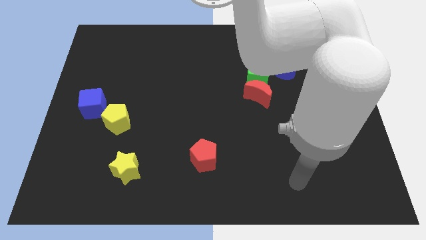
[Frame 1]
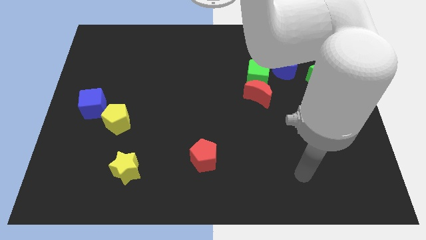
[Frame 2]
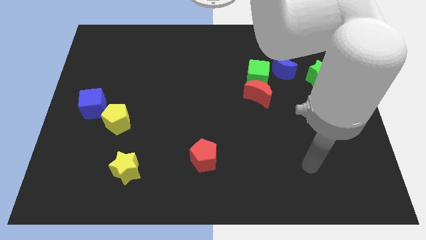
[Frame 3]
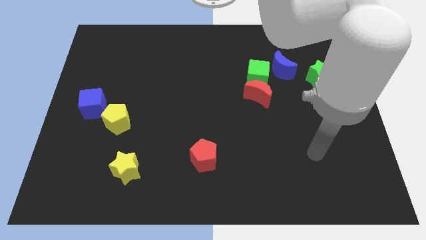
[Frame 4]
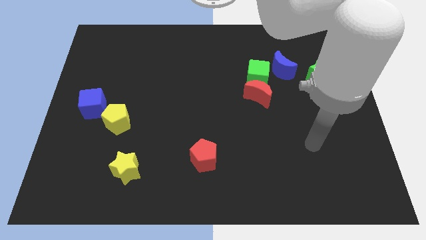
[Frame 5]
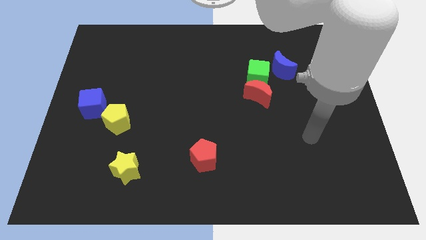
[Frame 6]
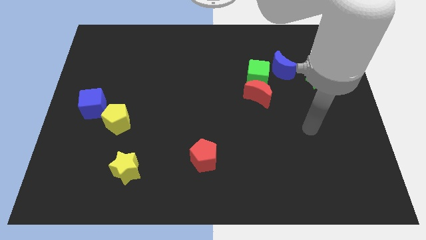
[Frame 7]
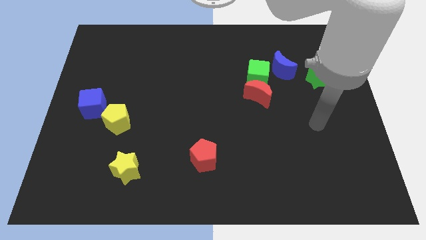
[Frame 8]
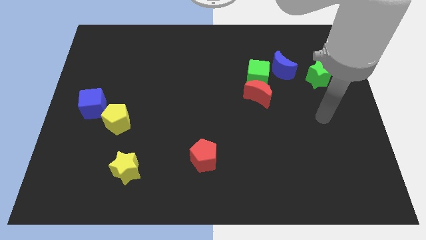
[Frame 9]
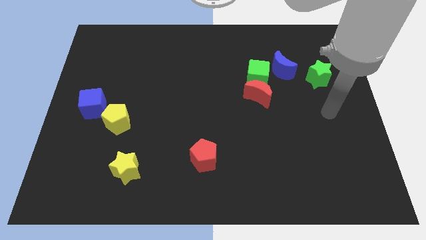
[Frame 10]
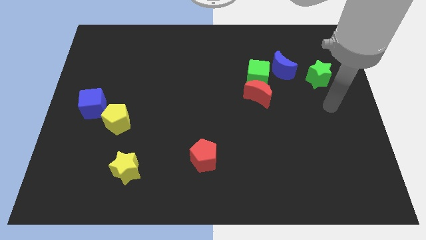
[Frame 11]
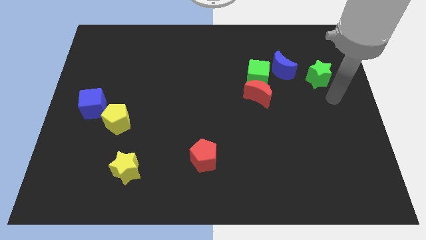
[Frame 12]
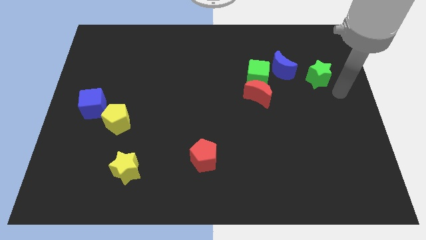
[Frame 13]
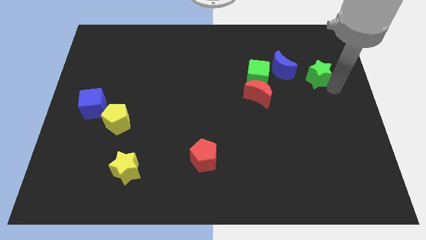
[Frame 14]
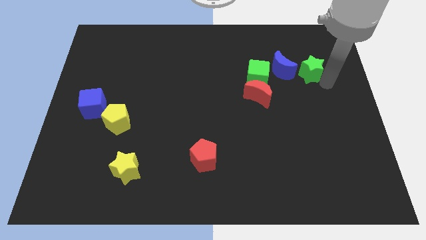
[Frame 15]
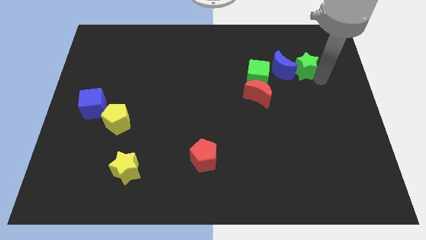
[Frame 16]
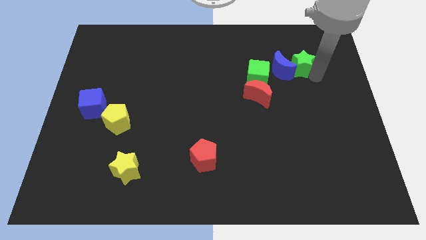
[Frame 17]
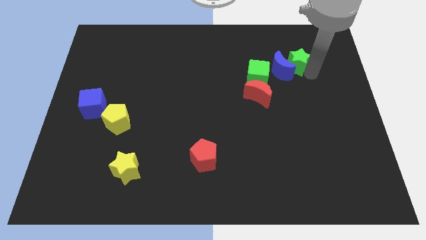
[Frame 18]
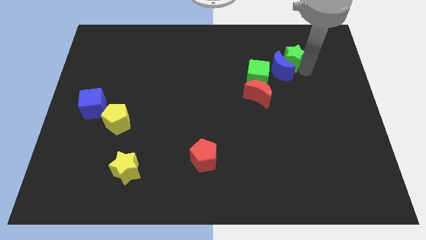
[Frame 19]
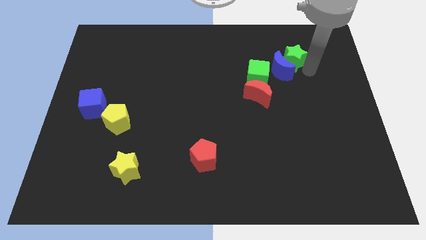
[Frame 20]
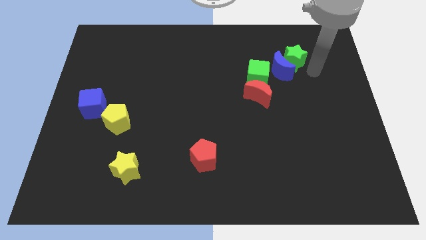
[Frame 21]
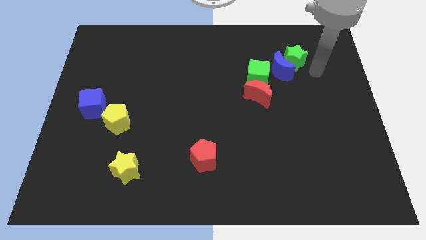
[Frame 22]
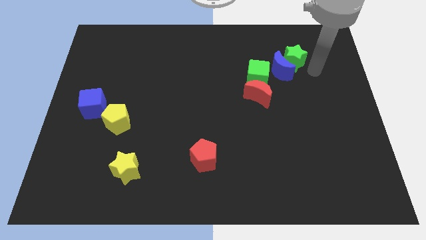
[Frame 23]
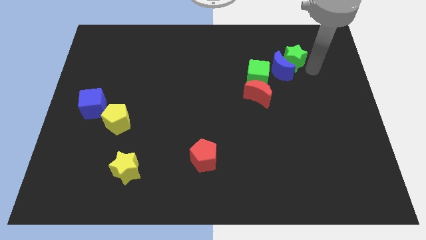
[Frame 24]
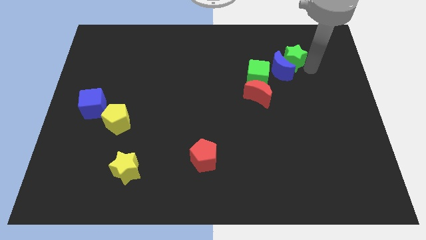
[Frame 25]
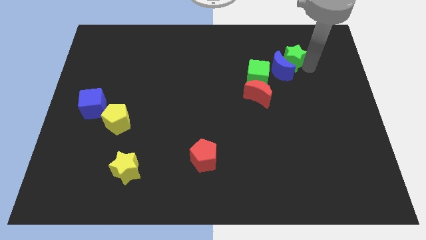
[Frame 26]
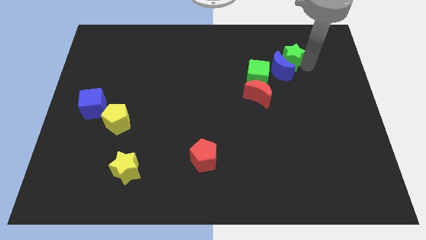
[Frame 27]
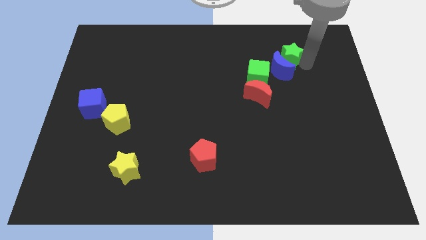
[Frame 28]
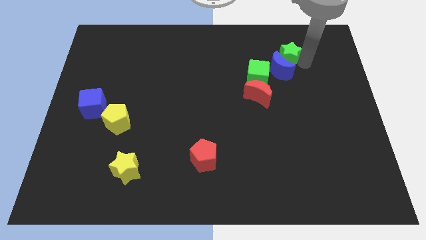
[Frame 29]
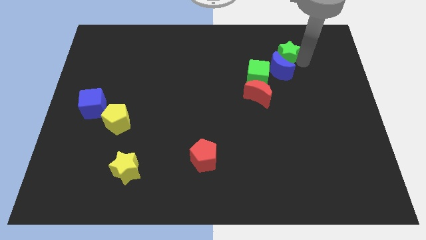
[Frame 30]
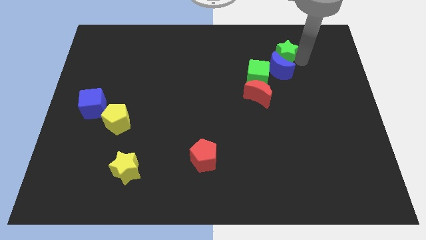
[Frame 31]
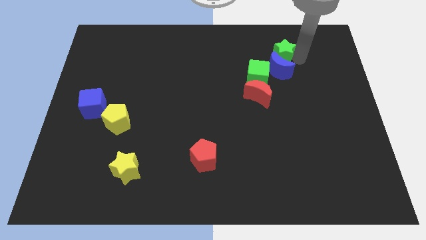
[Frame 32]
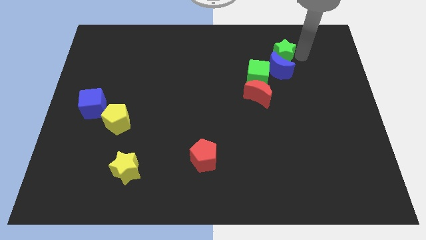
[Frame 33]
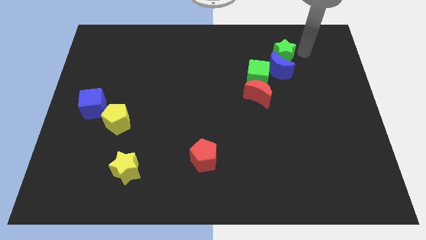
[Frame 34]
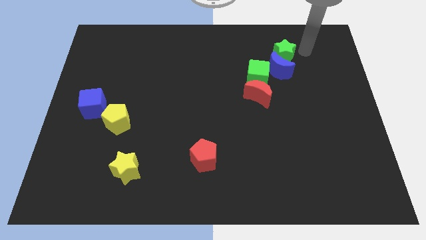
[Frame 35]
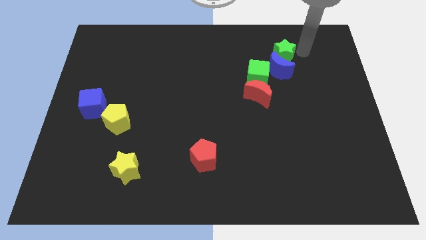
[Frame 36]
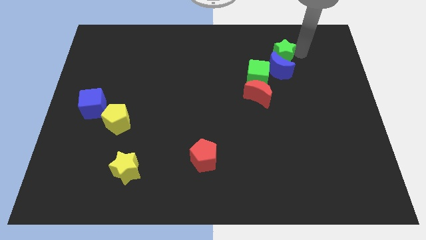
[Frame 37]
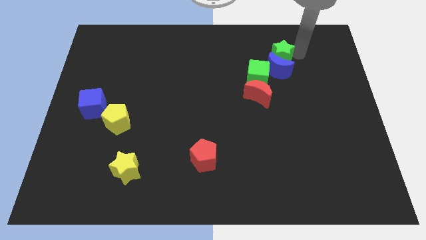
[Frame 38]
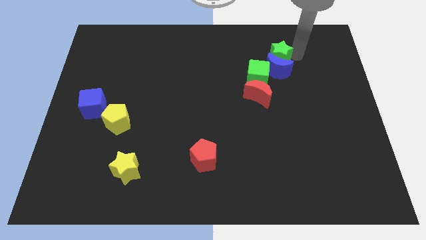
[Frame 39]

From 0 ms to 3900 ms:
slightly push the green star to the left

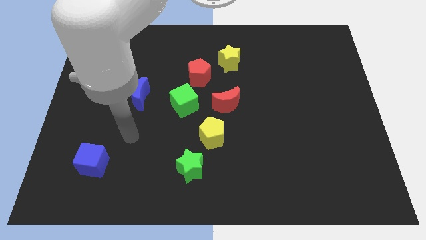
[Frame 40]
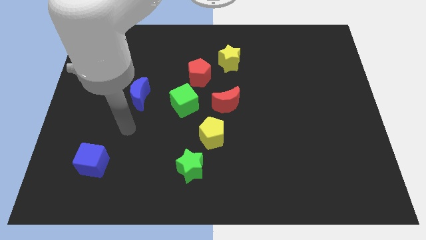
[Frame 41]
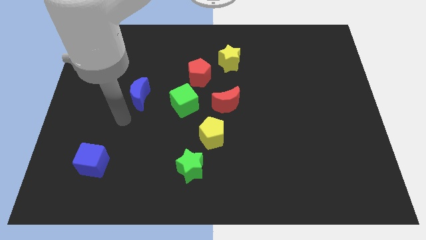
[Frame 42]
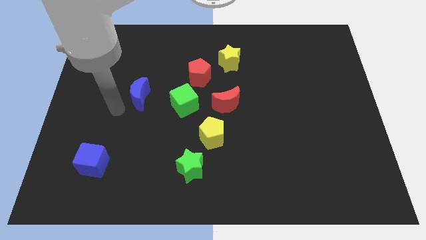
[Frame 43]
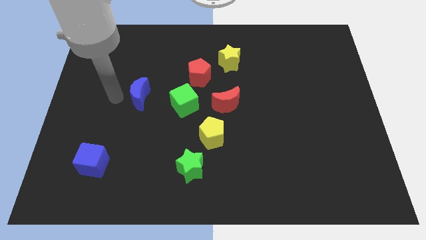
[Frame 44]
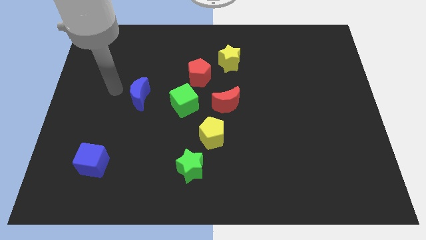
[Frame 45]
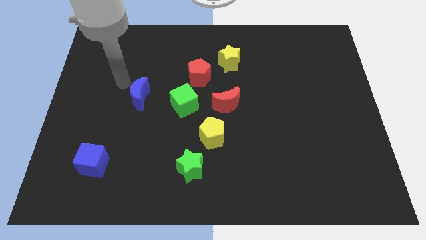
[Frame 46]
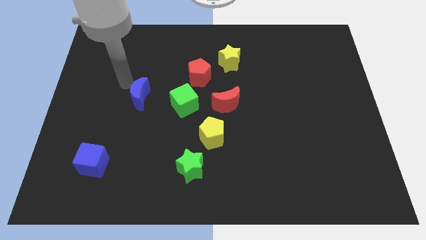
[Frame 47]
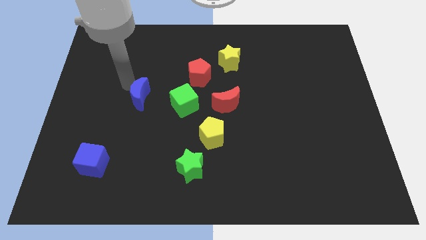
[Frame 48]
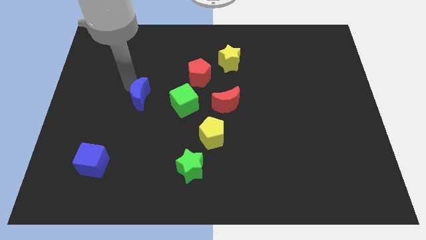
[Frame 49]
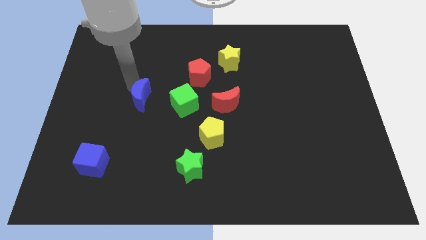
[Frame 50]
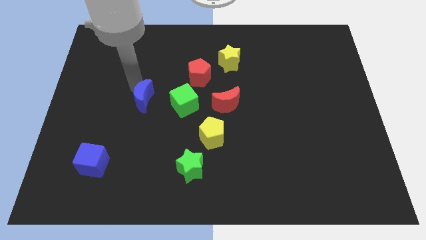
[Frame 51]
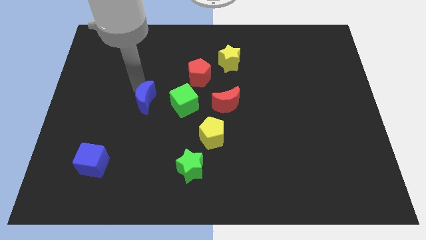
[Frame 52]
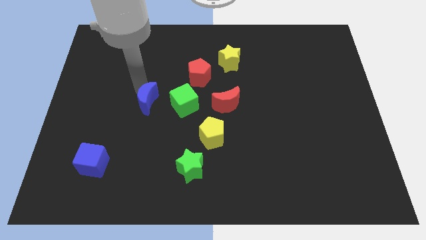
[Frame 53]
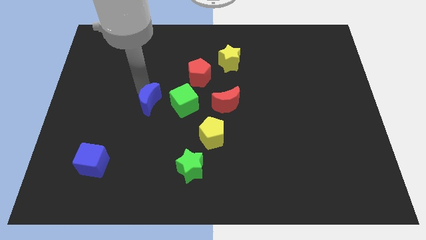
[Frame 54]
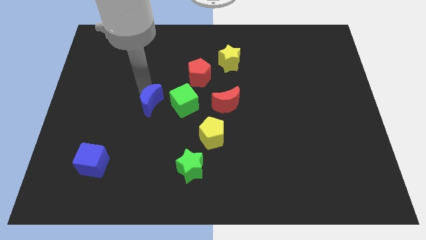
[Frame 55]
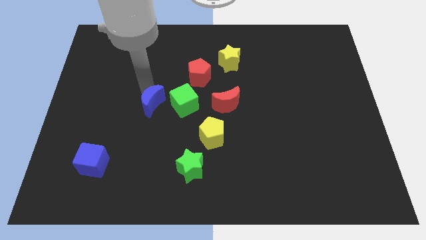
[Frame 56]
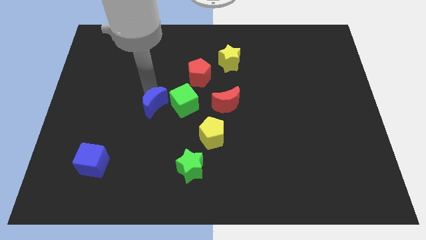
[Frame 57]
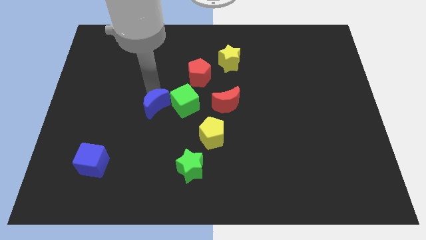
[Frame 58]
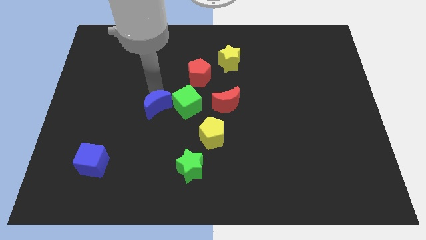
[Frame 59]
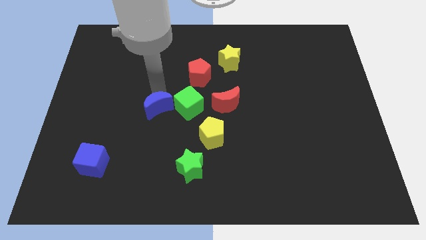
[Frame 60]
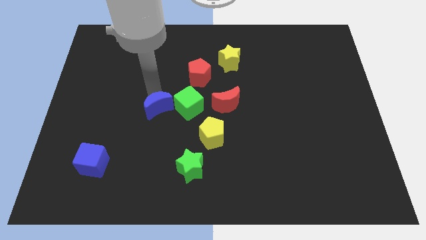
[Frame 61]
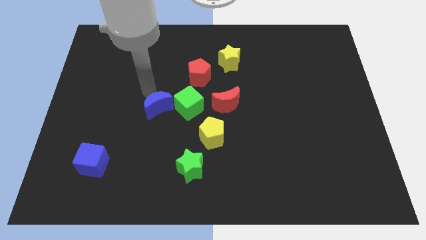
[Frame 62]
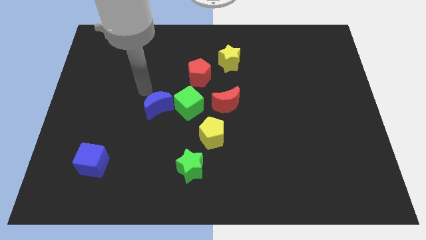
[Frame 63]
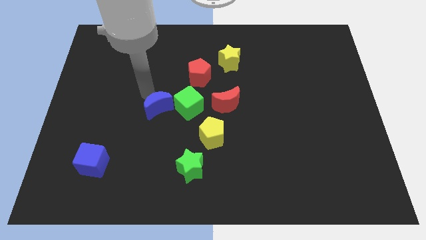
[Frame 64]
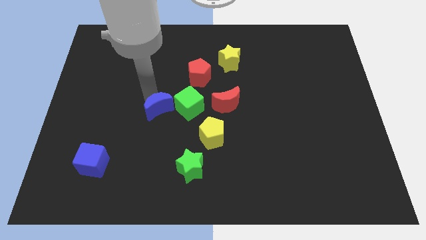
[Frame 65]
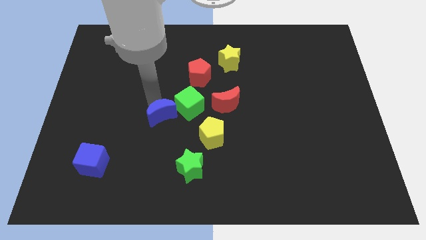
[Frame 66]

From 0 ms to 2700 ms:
move the blue moon a bit down and to the right diagonally

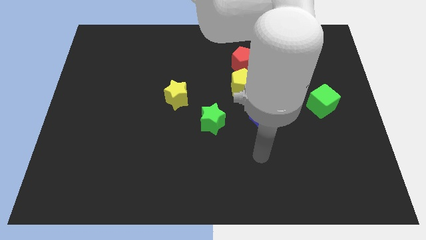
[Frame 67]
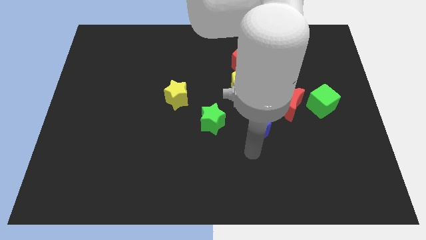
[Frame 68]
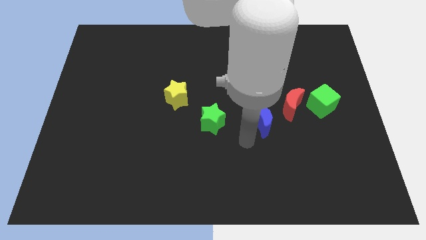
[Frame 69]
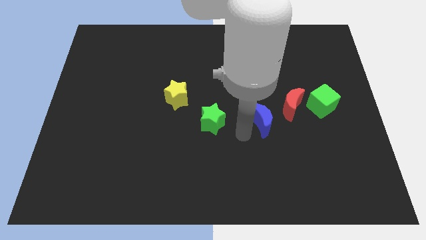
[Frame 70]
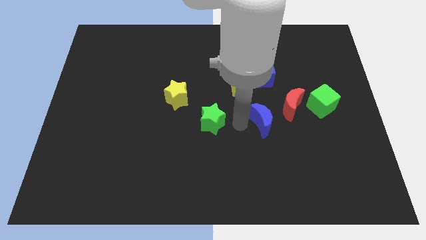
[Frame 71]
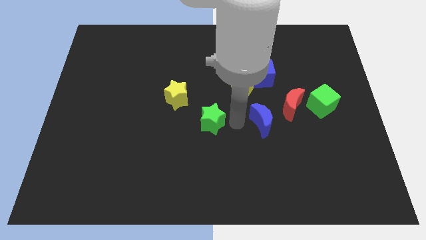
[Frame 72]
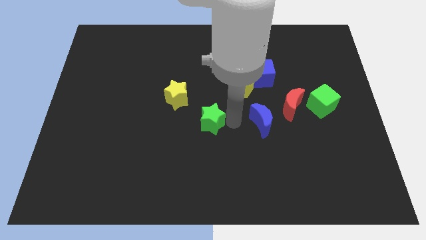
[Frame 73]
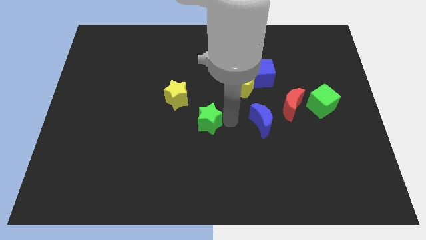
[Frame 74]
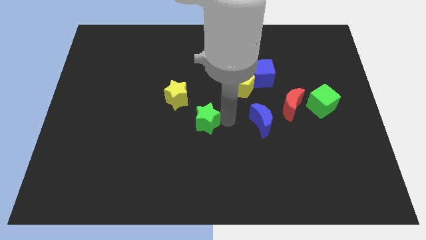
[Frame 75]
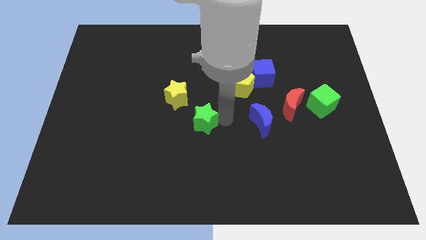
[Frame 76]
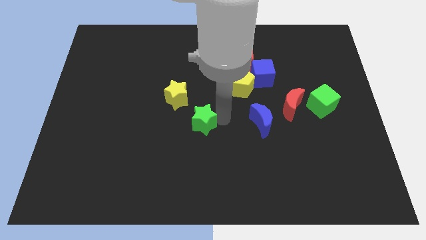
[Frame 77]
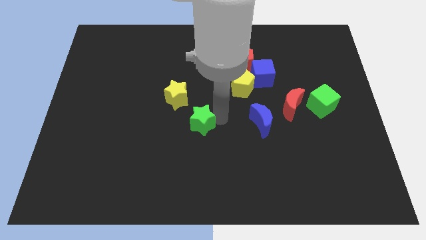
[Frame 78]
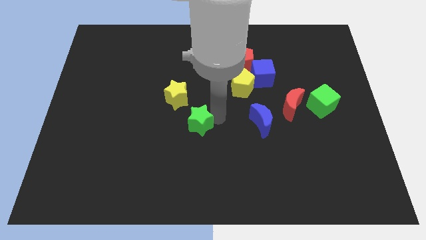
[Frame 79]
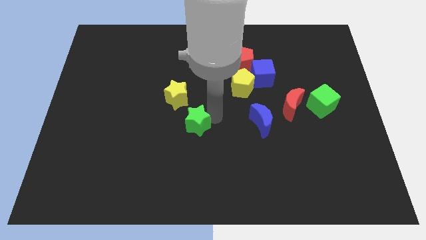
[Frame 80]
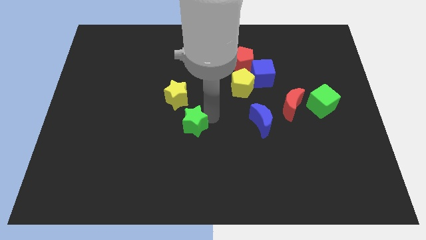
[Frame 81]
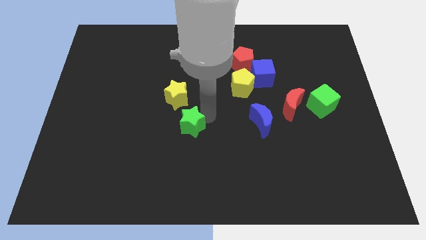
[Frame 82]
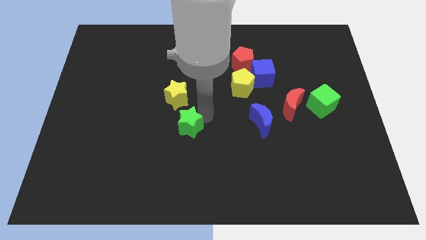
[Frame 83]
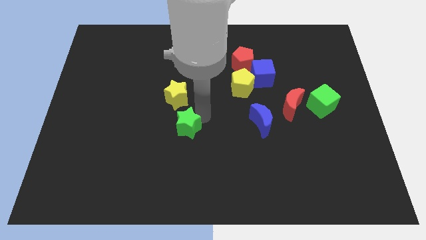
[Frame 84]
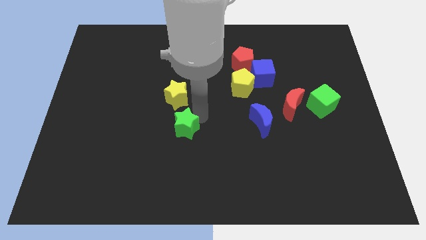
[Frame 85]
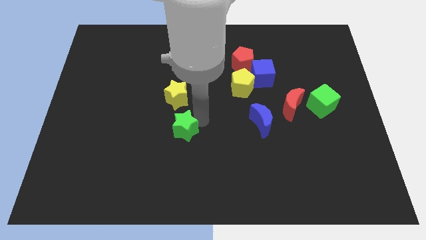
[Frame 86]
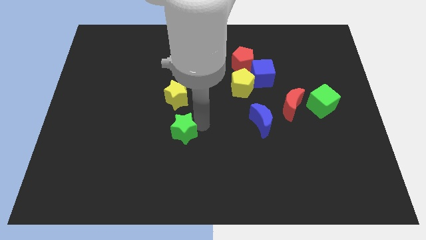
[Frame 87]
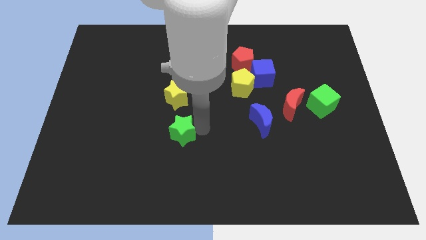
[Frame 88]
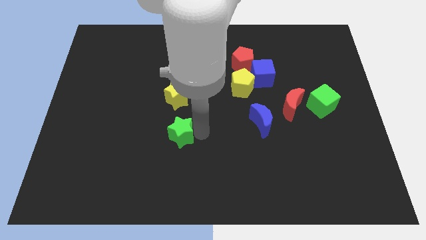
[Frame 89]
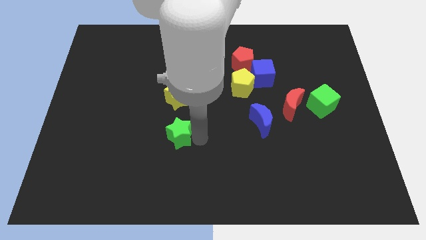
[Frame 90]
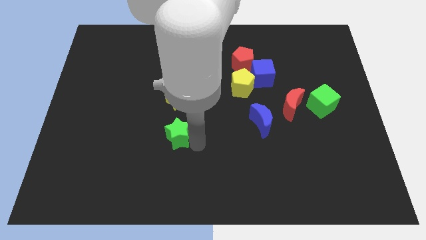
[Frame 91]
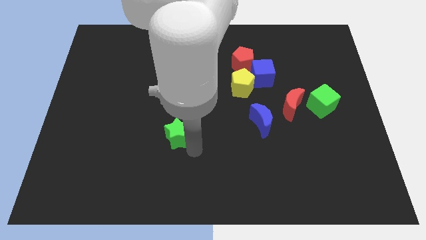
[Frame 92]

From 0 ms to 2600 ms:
move the green star left somewhat
